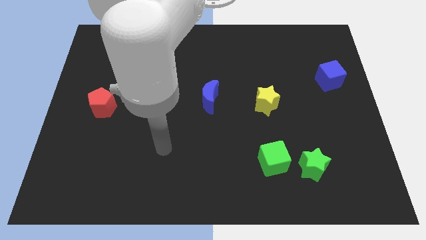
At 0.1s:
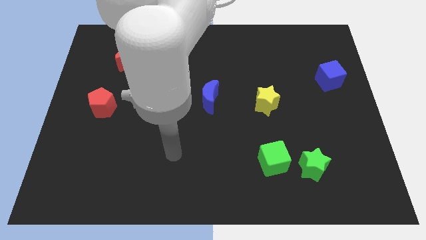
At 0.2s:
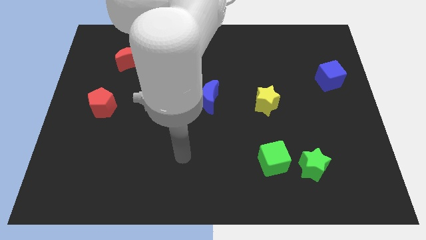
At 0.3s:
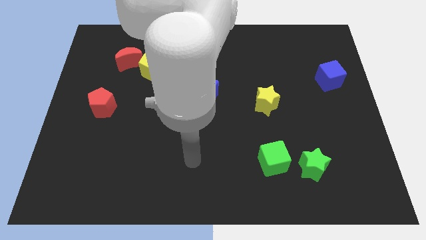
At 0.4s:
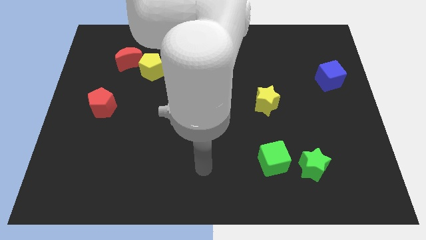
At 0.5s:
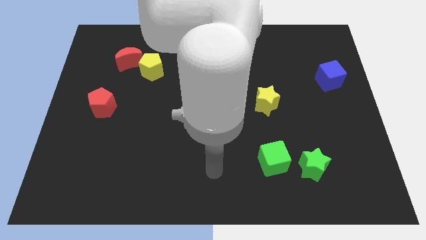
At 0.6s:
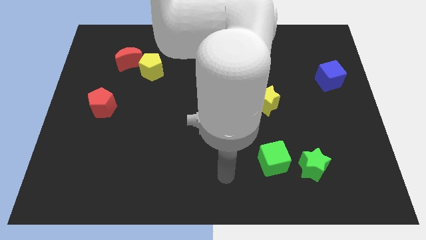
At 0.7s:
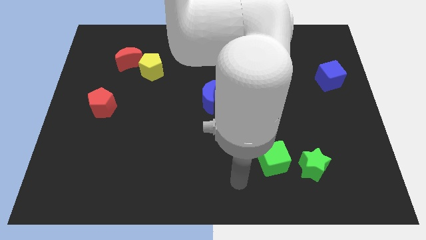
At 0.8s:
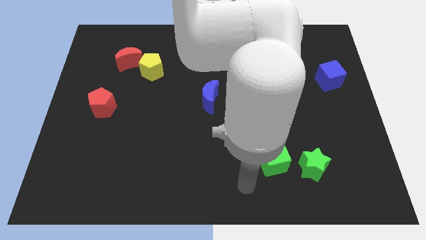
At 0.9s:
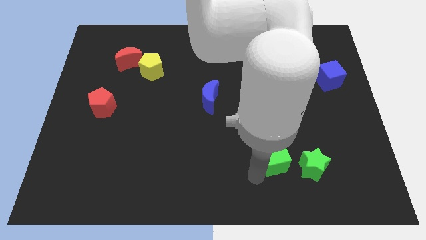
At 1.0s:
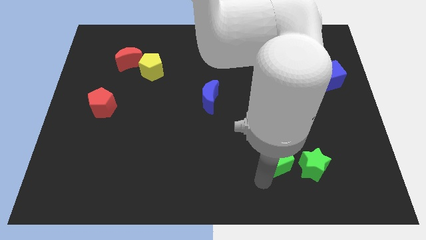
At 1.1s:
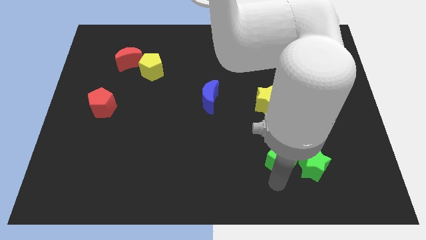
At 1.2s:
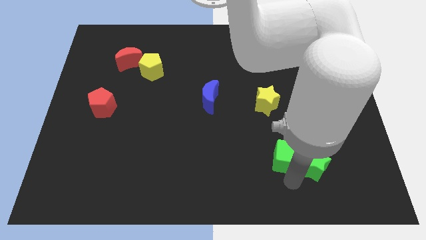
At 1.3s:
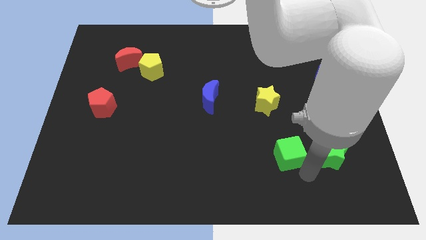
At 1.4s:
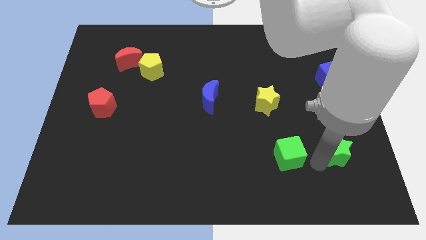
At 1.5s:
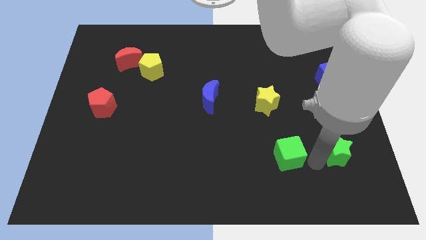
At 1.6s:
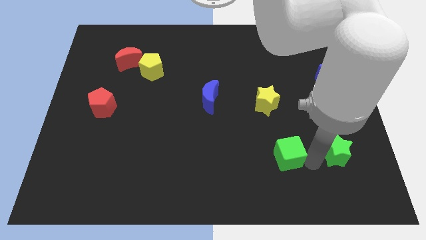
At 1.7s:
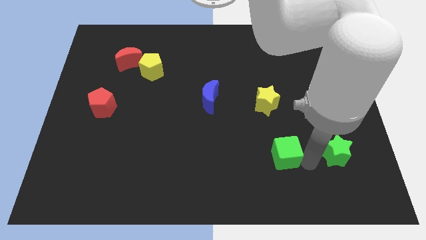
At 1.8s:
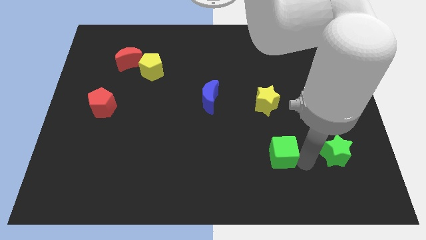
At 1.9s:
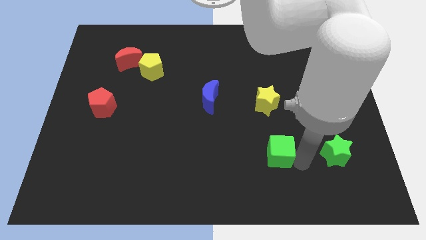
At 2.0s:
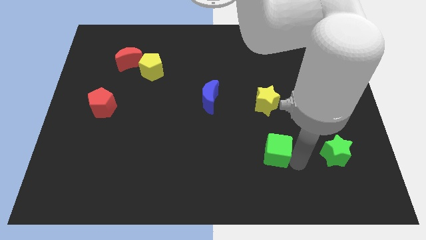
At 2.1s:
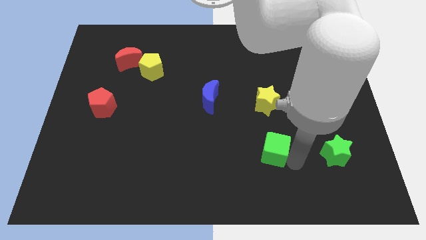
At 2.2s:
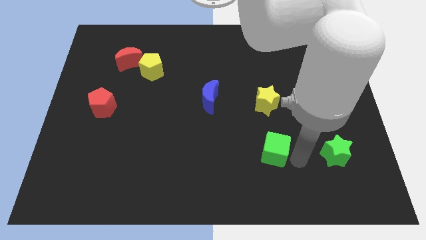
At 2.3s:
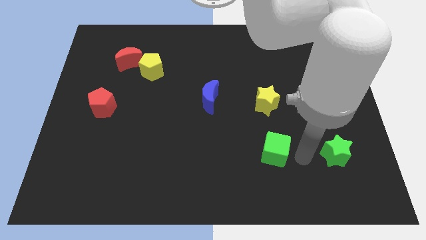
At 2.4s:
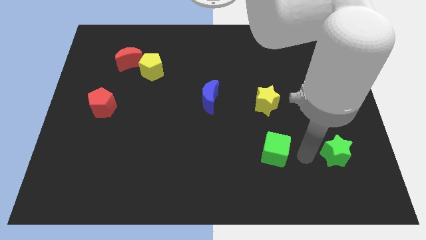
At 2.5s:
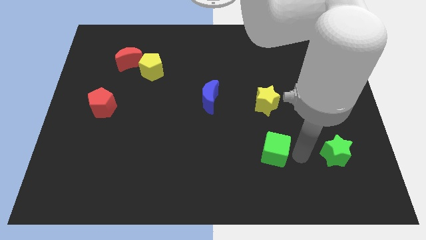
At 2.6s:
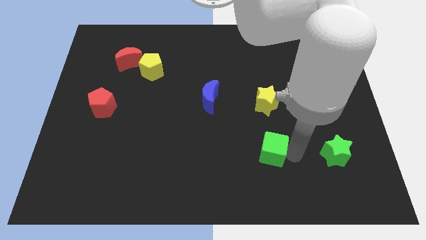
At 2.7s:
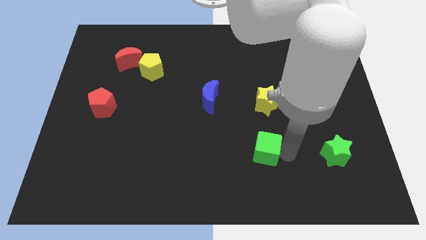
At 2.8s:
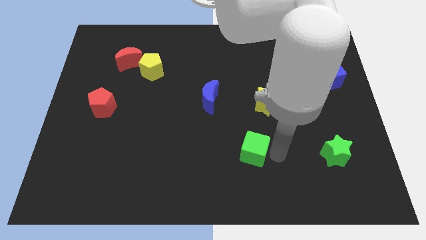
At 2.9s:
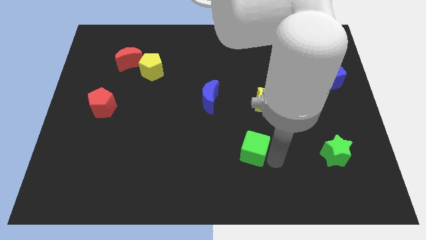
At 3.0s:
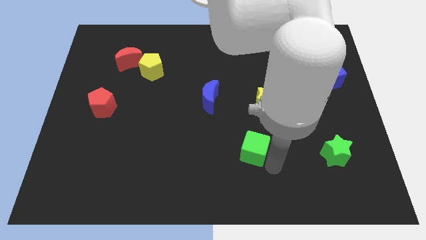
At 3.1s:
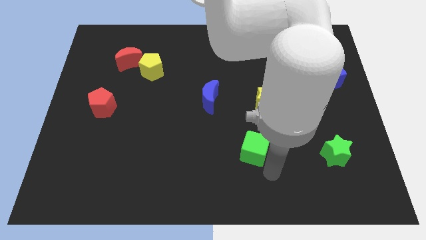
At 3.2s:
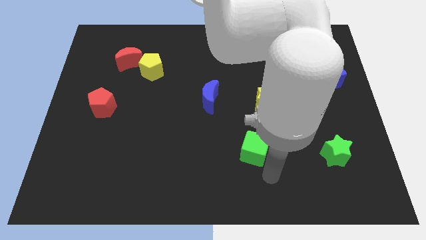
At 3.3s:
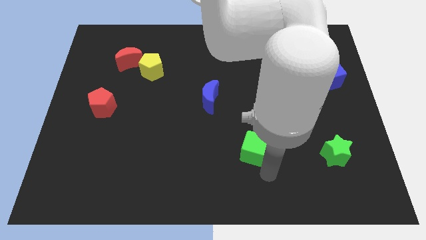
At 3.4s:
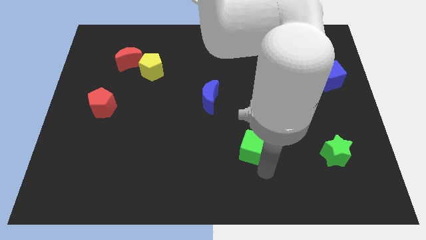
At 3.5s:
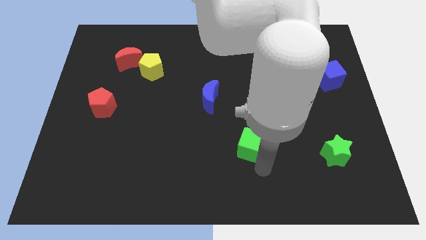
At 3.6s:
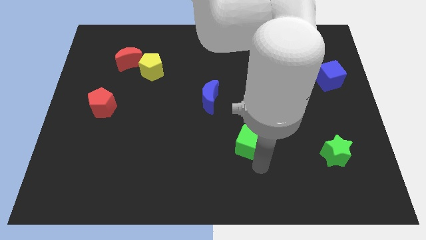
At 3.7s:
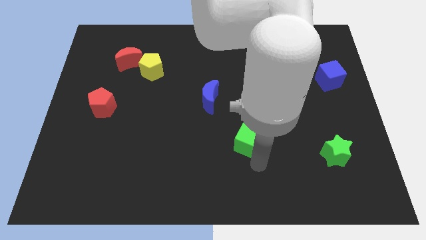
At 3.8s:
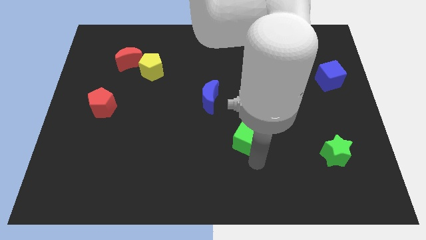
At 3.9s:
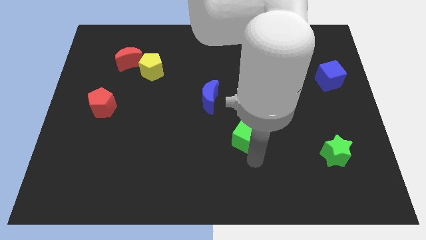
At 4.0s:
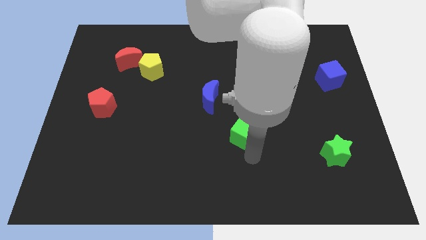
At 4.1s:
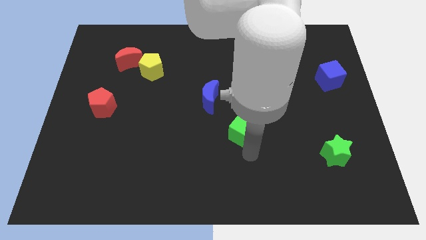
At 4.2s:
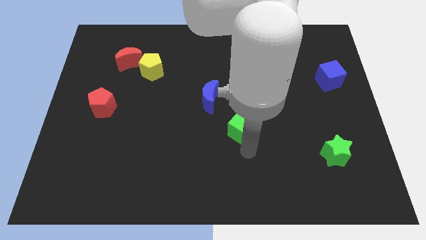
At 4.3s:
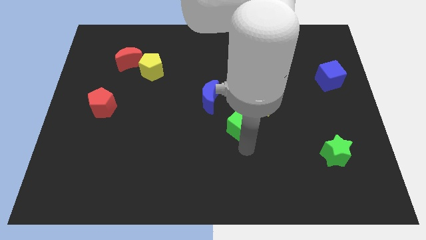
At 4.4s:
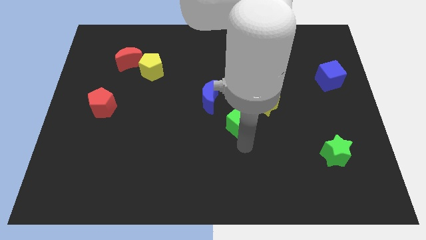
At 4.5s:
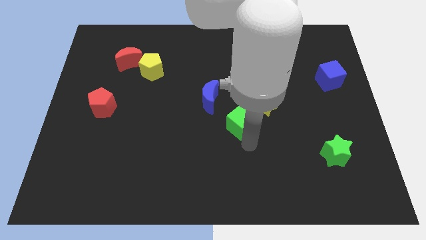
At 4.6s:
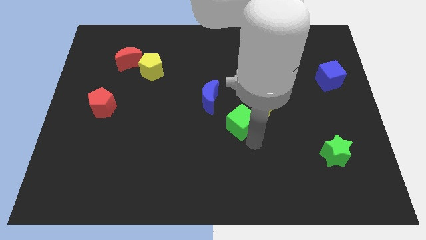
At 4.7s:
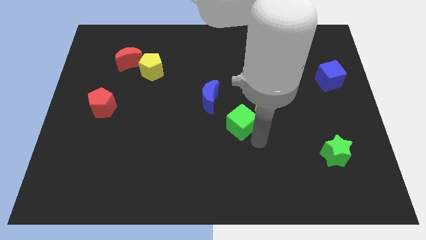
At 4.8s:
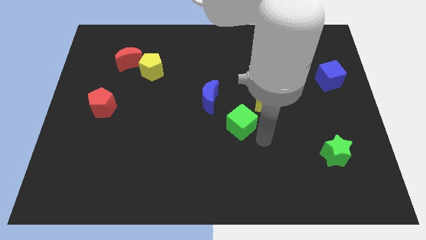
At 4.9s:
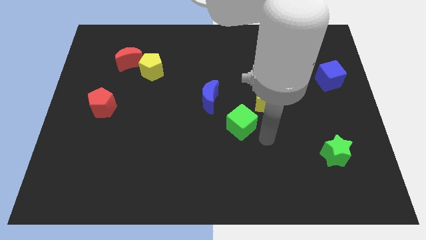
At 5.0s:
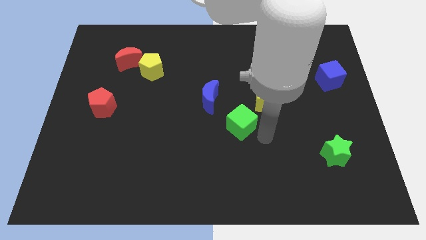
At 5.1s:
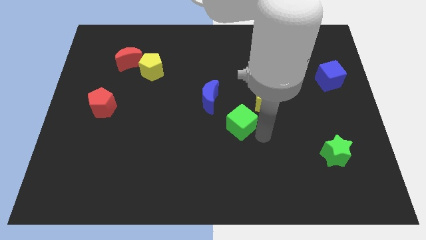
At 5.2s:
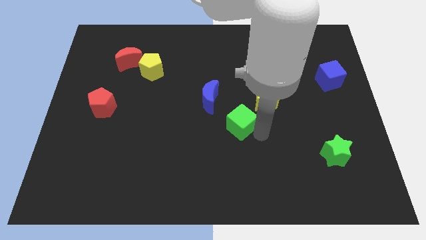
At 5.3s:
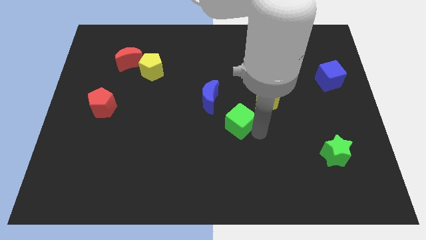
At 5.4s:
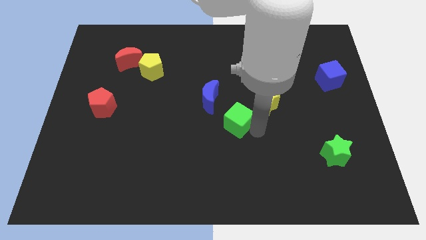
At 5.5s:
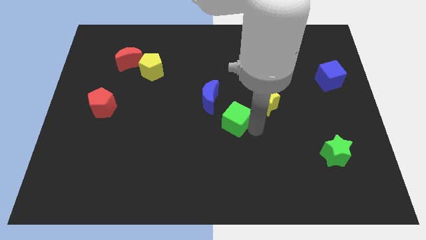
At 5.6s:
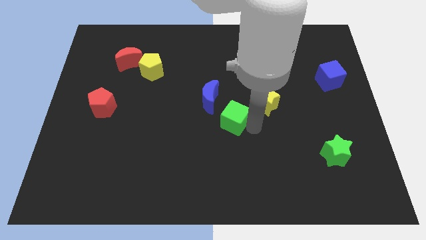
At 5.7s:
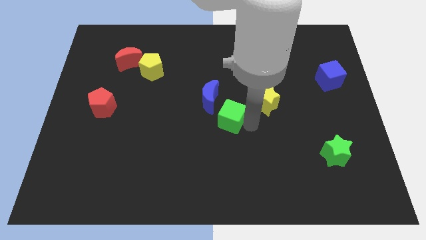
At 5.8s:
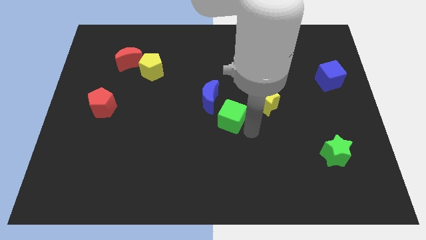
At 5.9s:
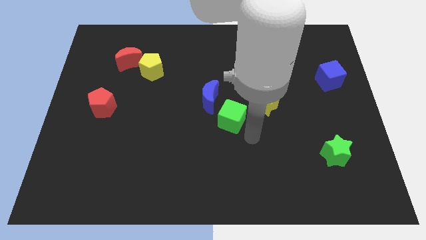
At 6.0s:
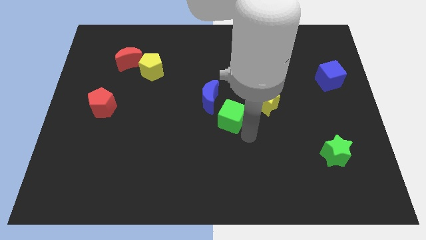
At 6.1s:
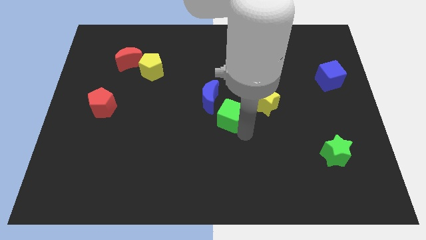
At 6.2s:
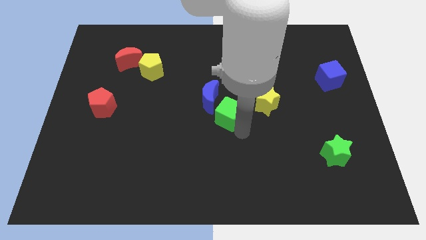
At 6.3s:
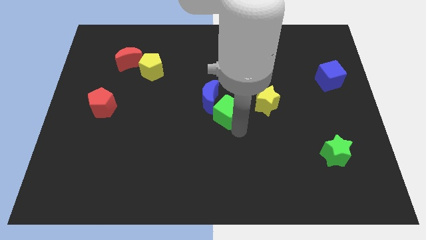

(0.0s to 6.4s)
move the green cube next to the blue moon
